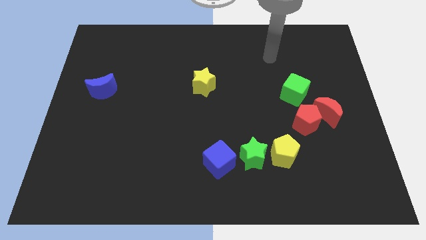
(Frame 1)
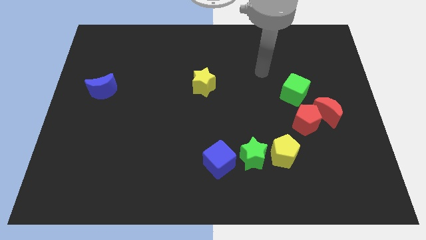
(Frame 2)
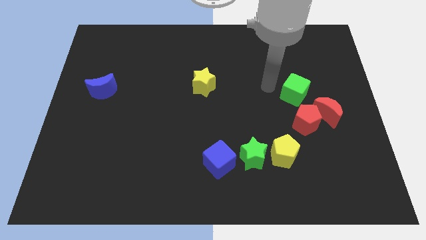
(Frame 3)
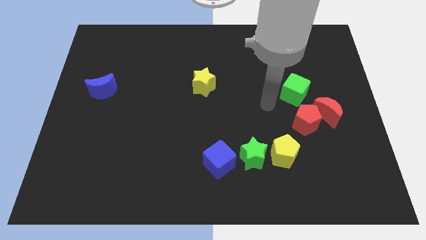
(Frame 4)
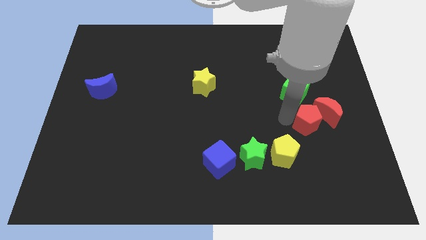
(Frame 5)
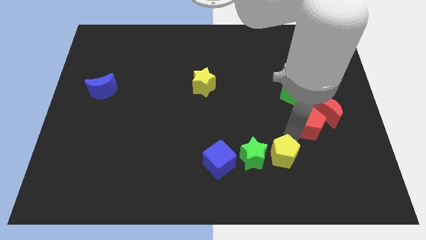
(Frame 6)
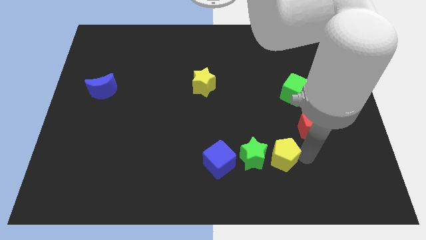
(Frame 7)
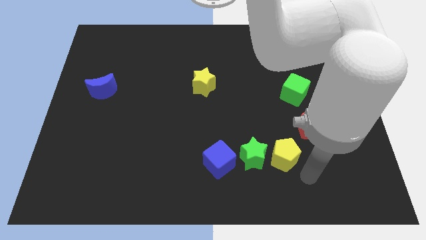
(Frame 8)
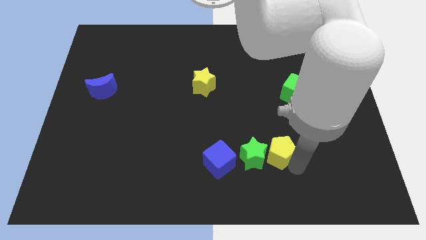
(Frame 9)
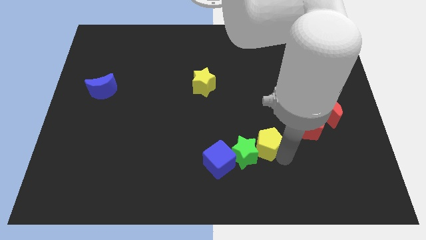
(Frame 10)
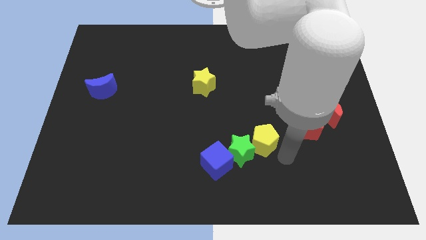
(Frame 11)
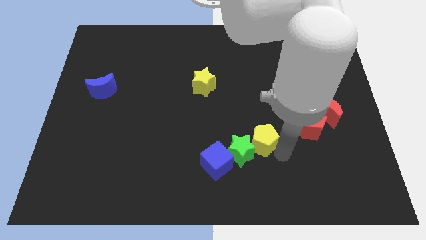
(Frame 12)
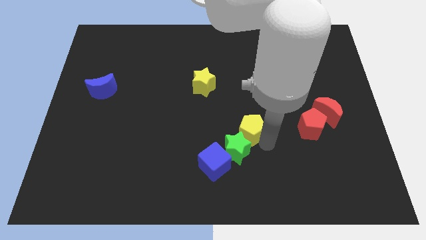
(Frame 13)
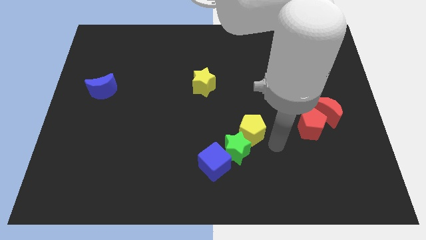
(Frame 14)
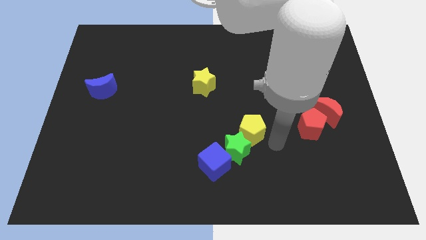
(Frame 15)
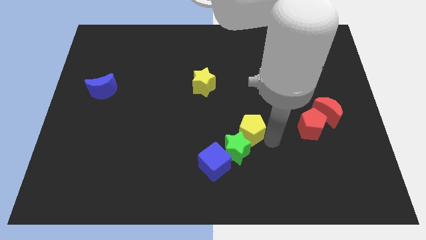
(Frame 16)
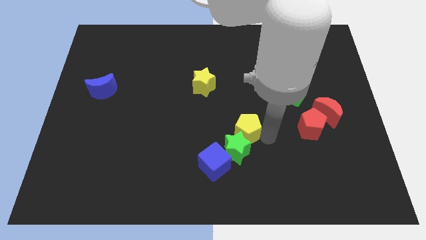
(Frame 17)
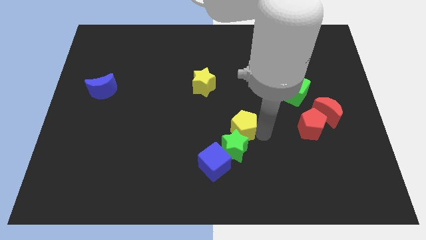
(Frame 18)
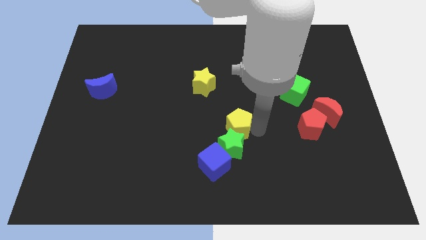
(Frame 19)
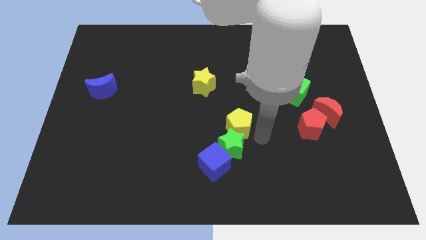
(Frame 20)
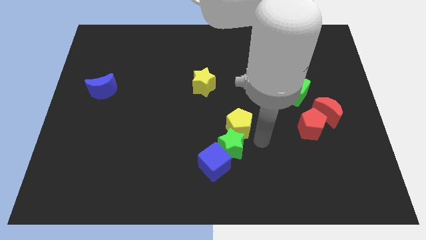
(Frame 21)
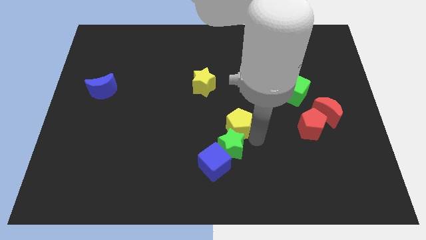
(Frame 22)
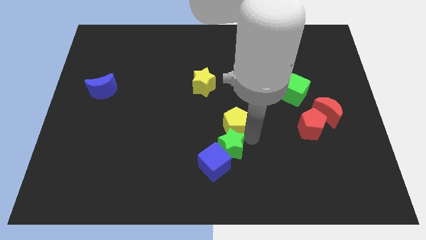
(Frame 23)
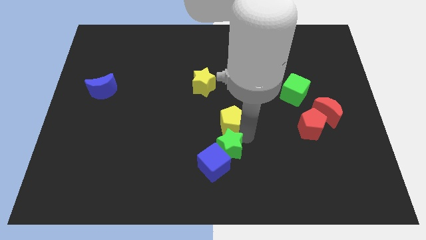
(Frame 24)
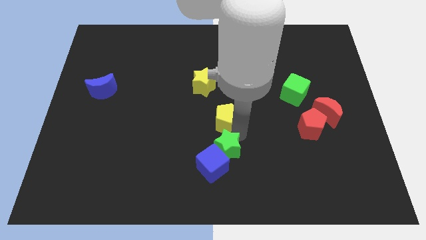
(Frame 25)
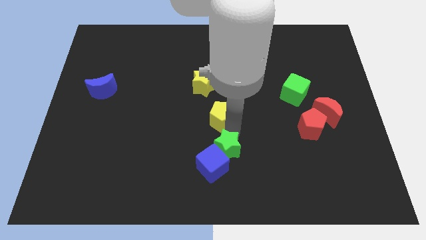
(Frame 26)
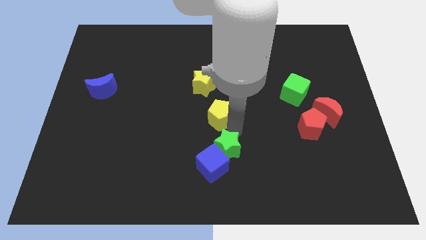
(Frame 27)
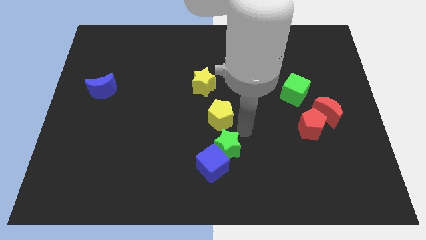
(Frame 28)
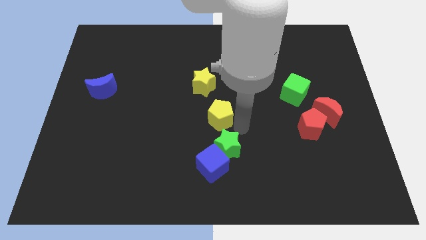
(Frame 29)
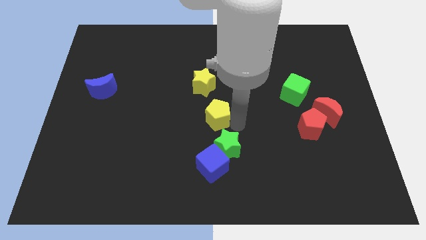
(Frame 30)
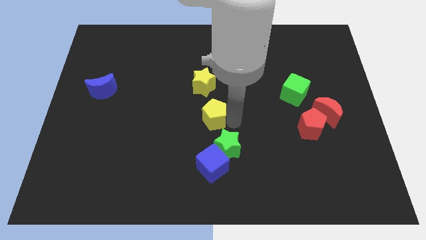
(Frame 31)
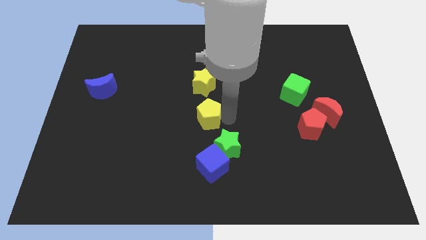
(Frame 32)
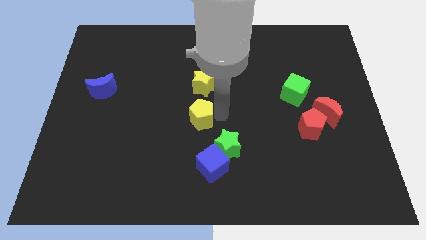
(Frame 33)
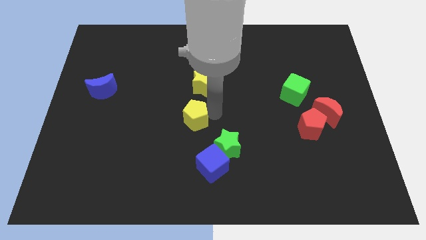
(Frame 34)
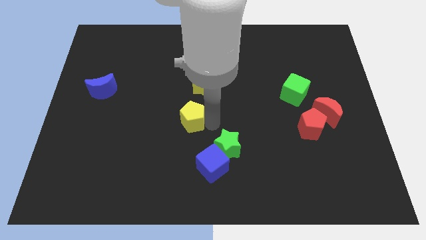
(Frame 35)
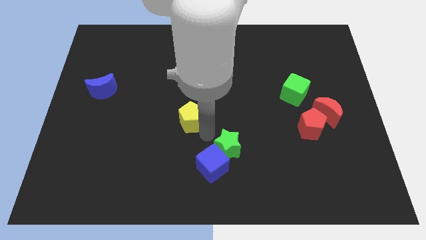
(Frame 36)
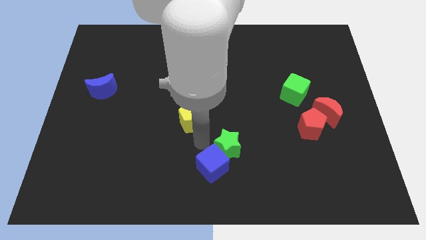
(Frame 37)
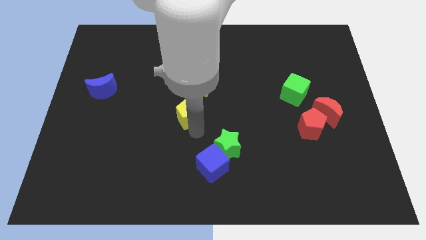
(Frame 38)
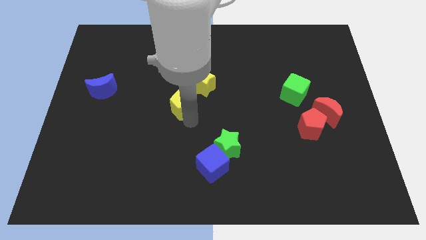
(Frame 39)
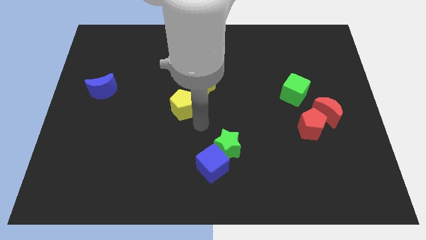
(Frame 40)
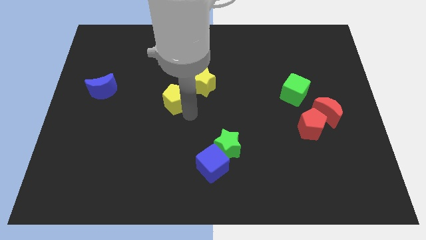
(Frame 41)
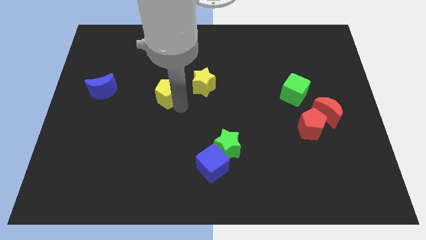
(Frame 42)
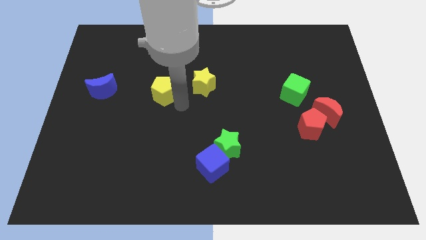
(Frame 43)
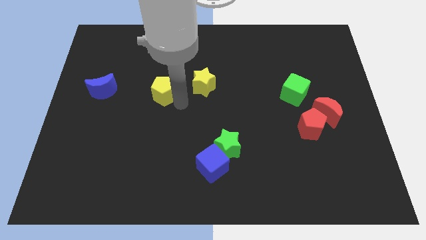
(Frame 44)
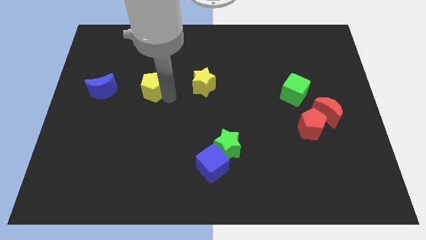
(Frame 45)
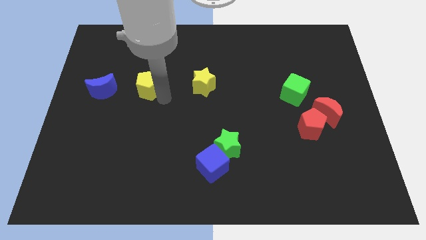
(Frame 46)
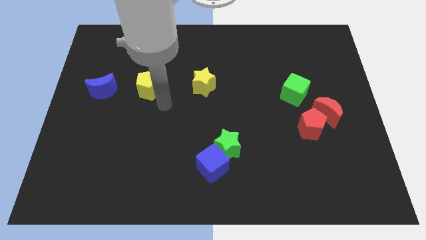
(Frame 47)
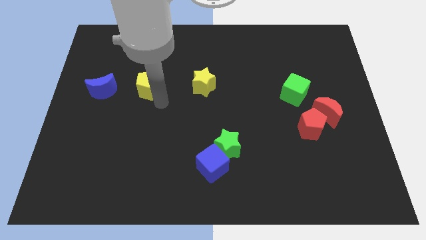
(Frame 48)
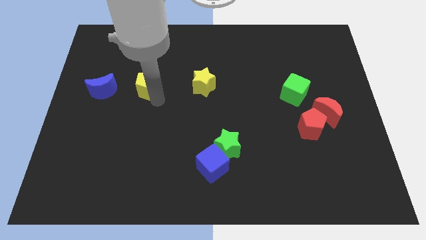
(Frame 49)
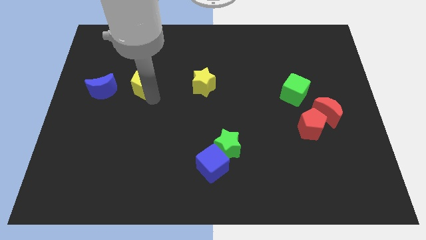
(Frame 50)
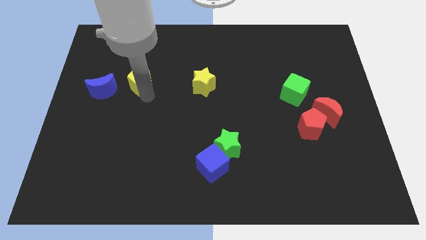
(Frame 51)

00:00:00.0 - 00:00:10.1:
move the yellow pentagon to the top right side of the blue moon

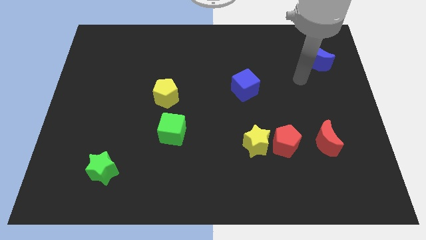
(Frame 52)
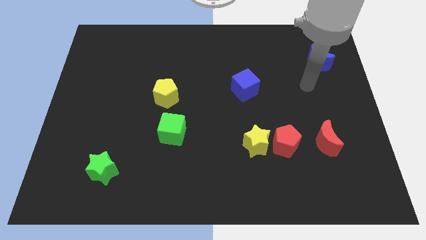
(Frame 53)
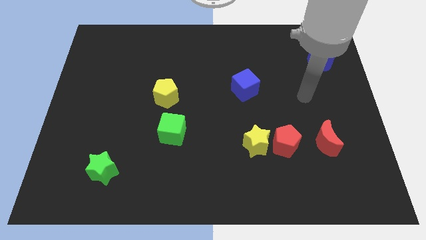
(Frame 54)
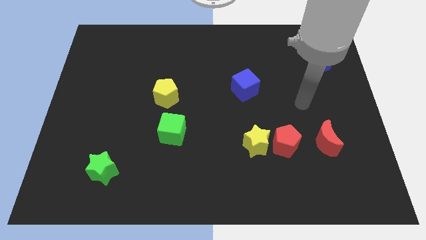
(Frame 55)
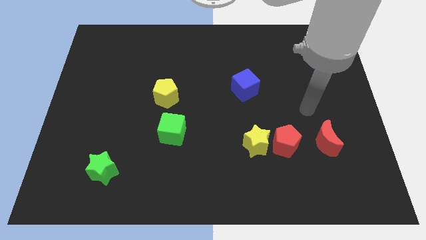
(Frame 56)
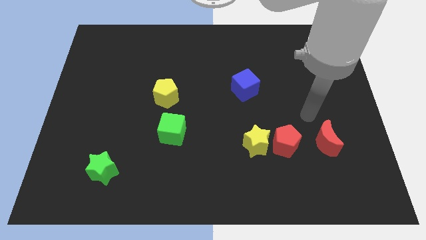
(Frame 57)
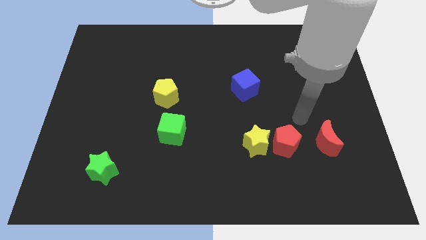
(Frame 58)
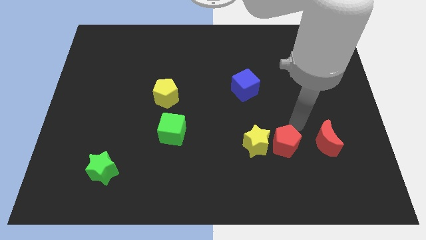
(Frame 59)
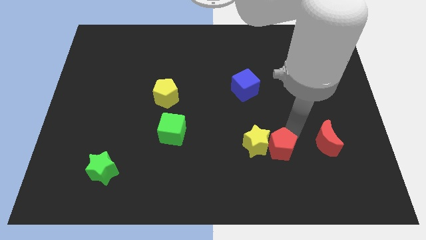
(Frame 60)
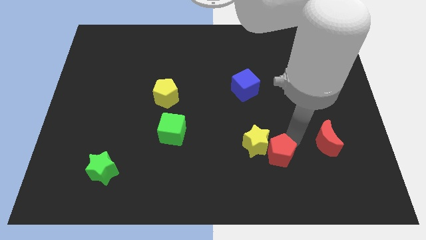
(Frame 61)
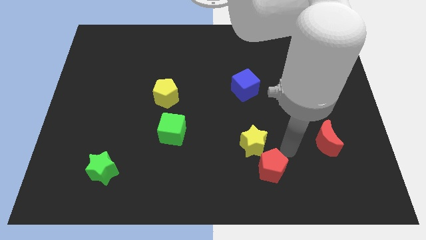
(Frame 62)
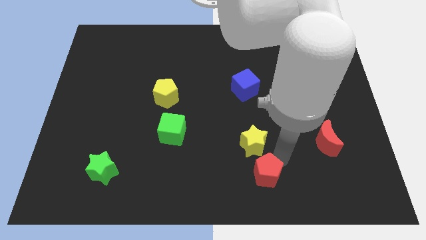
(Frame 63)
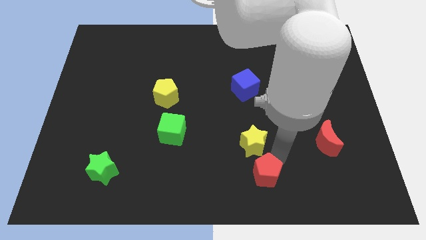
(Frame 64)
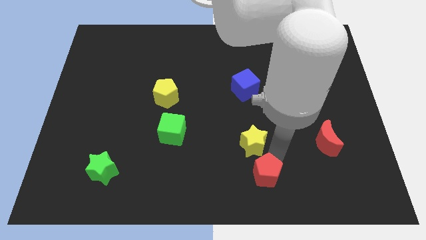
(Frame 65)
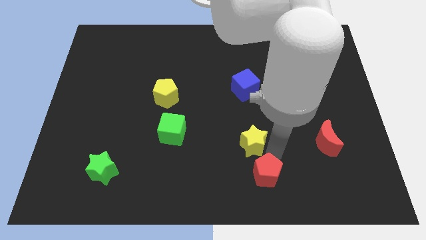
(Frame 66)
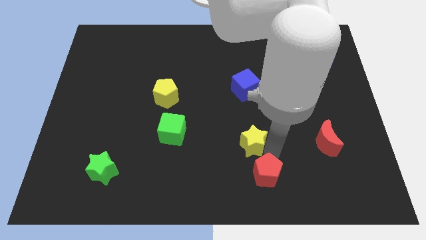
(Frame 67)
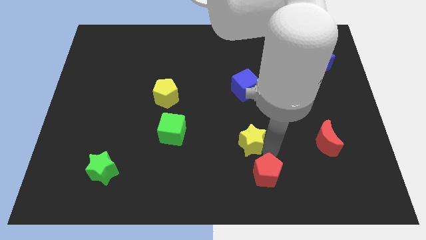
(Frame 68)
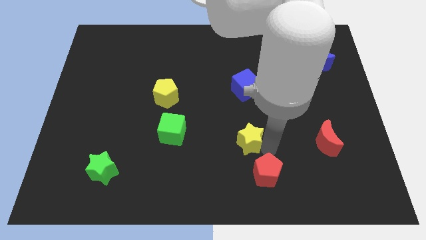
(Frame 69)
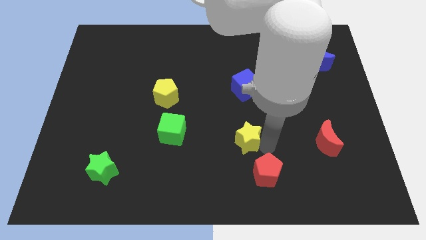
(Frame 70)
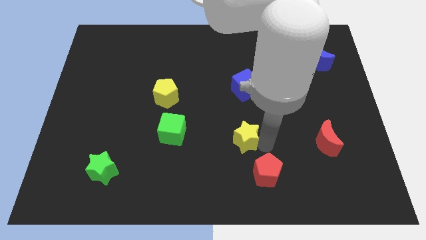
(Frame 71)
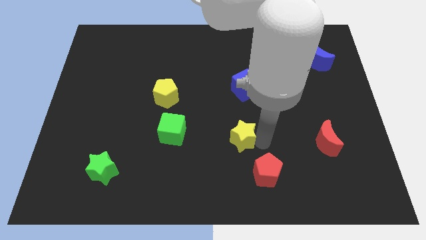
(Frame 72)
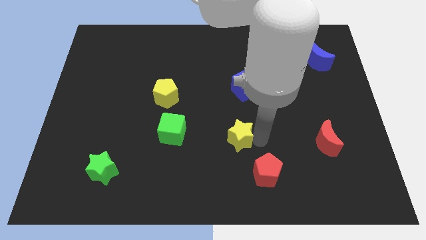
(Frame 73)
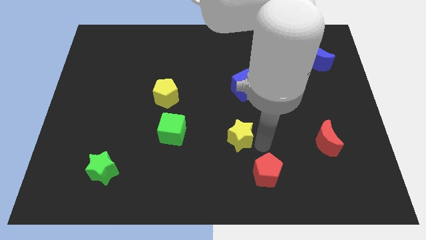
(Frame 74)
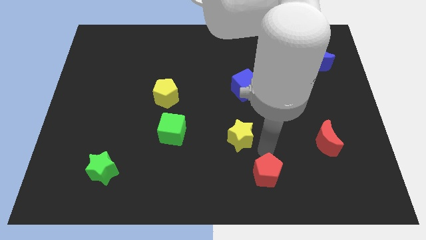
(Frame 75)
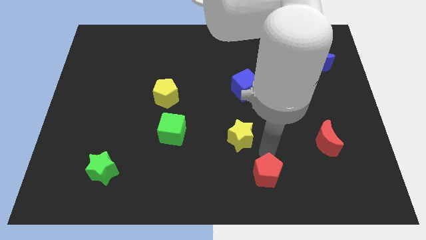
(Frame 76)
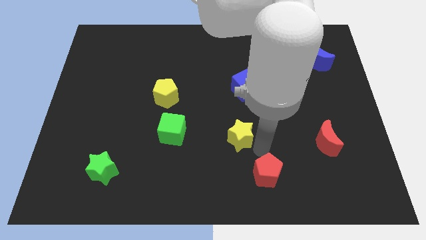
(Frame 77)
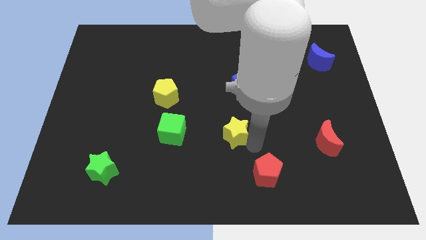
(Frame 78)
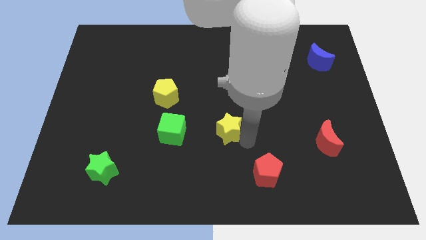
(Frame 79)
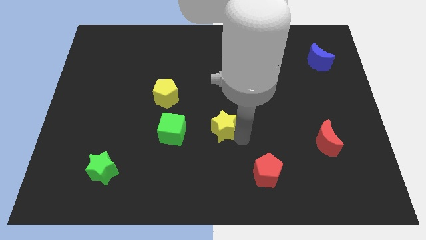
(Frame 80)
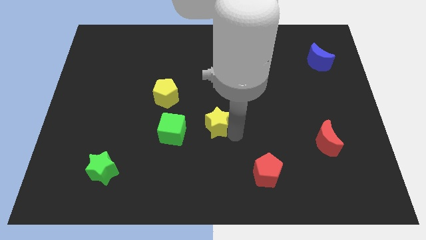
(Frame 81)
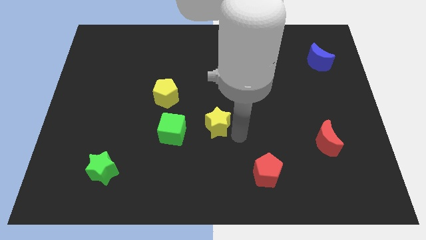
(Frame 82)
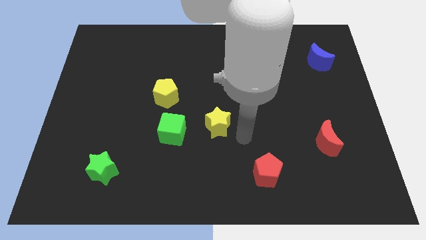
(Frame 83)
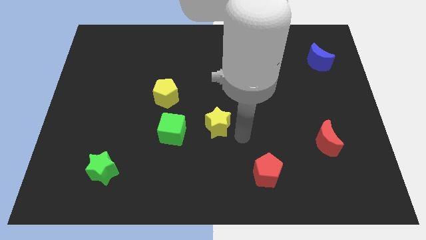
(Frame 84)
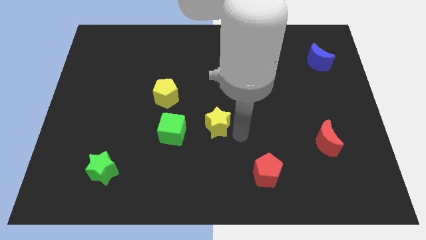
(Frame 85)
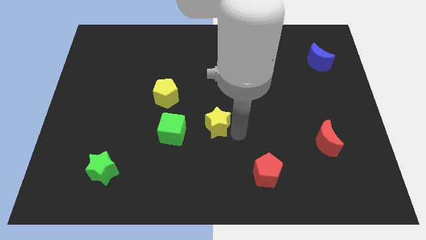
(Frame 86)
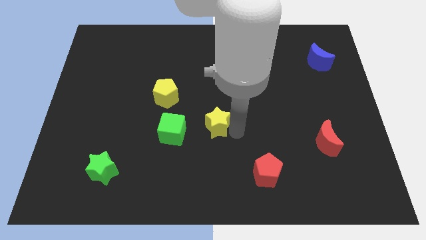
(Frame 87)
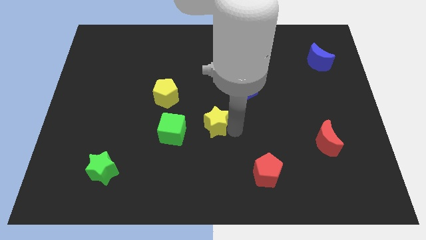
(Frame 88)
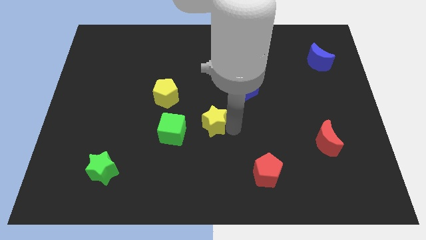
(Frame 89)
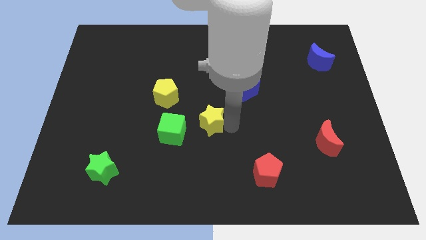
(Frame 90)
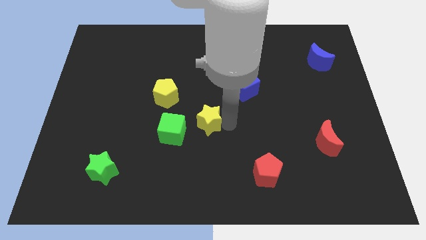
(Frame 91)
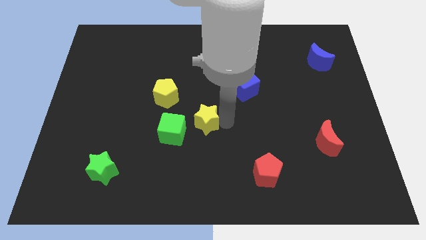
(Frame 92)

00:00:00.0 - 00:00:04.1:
slide the yellow star to the bottom right side of the yellow pentagon
